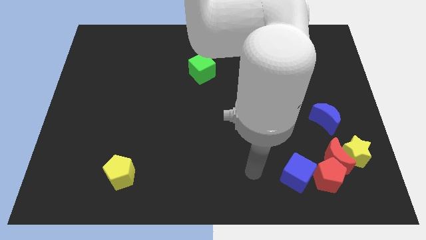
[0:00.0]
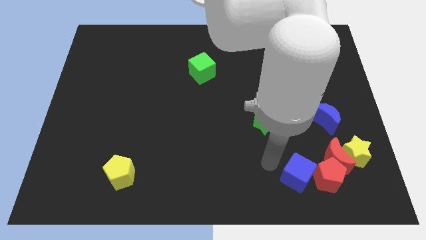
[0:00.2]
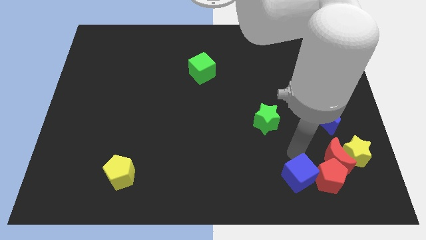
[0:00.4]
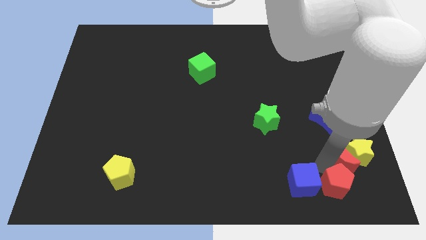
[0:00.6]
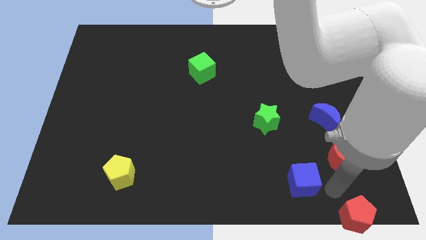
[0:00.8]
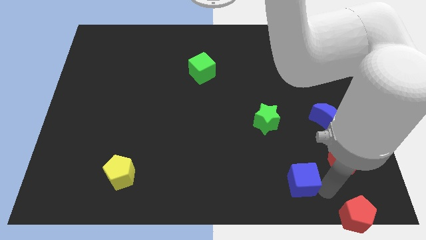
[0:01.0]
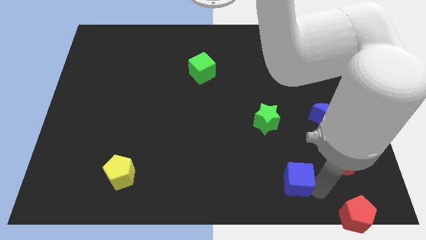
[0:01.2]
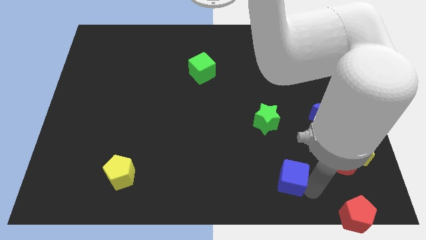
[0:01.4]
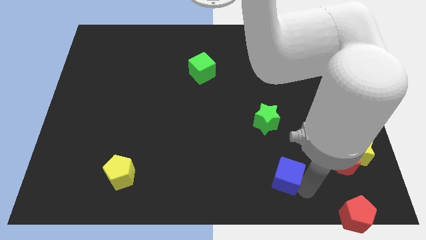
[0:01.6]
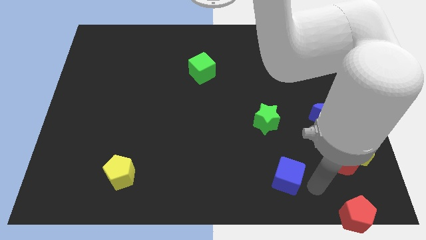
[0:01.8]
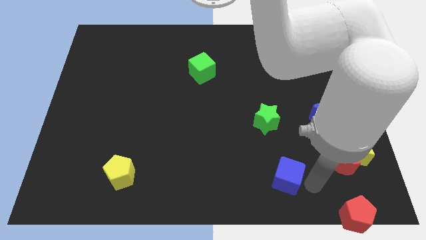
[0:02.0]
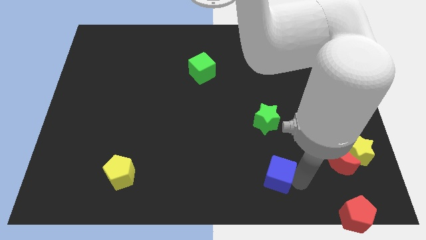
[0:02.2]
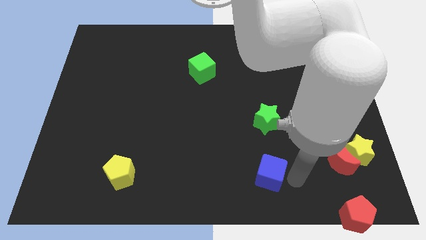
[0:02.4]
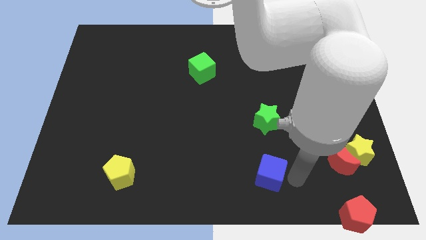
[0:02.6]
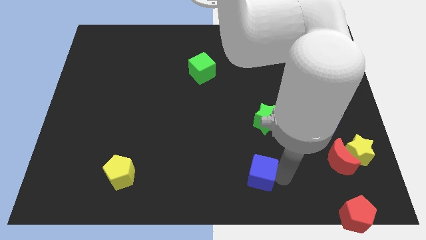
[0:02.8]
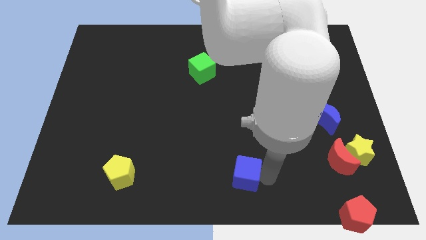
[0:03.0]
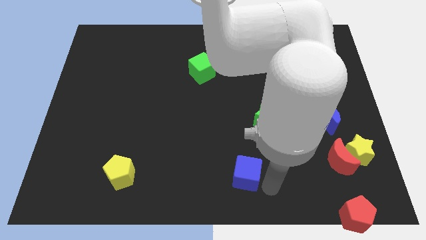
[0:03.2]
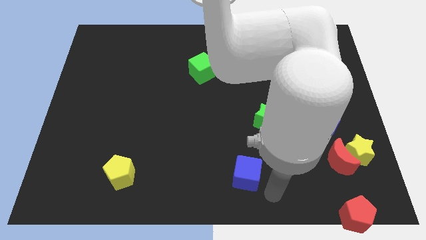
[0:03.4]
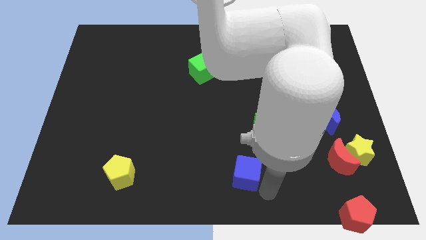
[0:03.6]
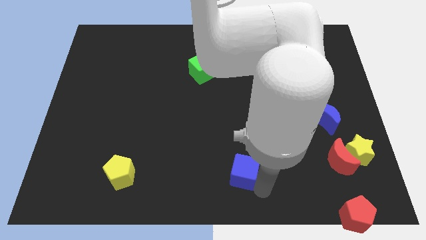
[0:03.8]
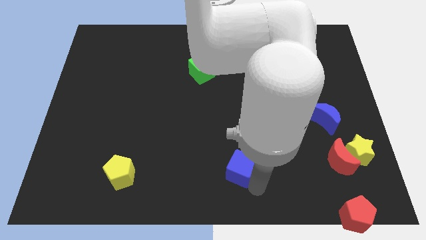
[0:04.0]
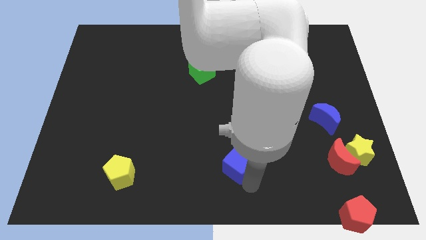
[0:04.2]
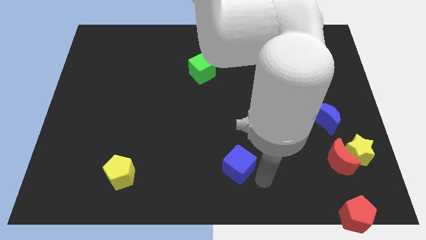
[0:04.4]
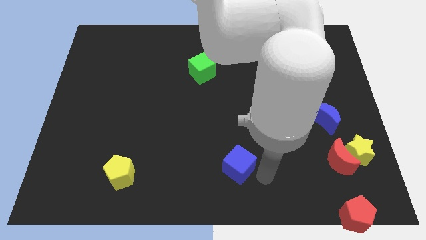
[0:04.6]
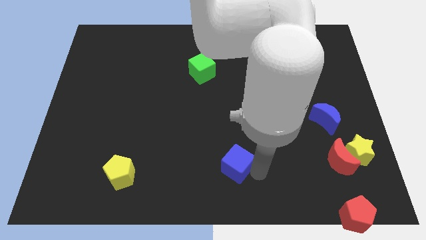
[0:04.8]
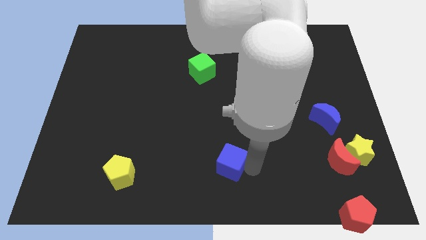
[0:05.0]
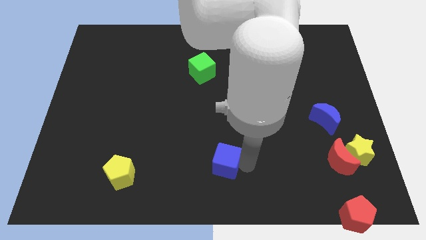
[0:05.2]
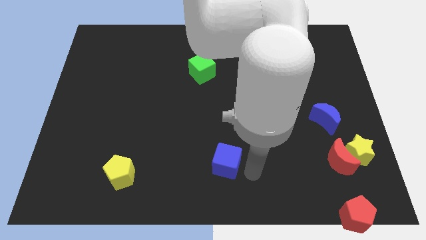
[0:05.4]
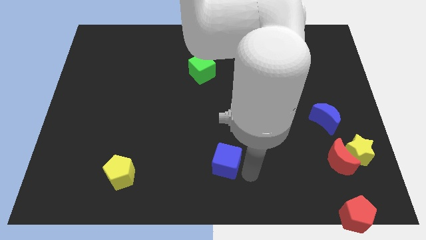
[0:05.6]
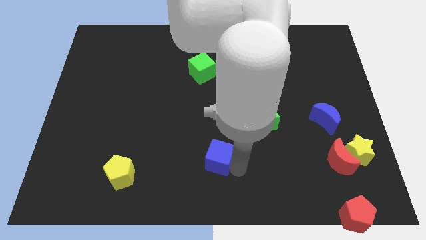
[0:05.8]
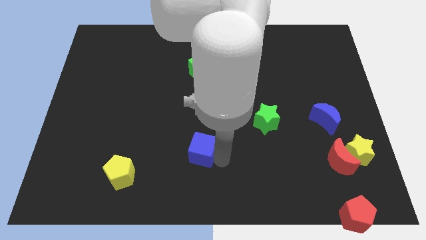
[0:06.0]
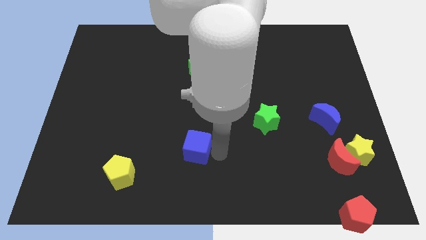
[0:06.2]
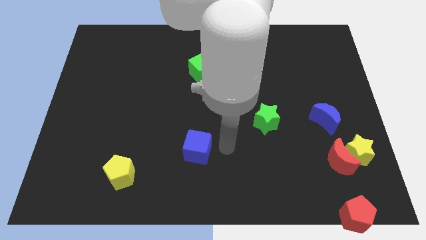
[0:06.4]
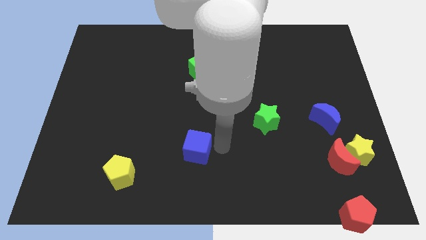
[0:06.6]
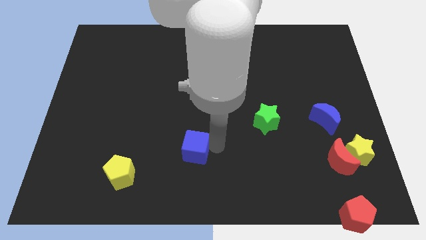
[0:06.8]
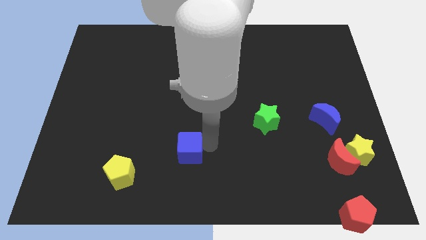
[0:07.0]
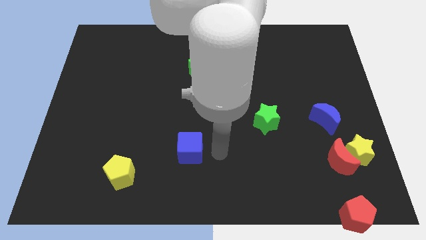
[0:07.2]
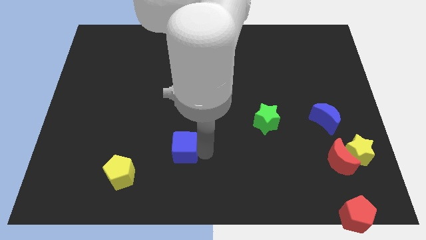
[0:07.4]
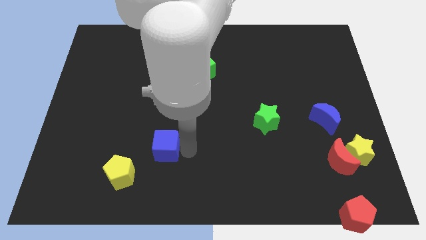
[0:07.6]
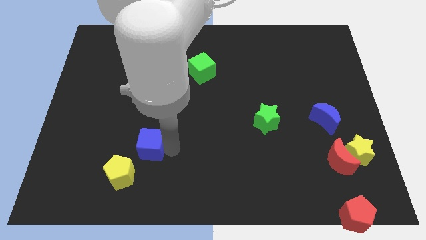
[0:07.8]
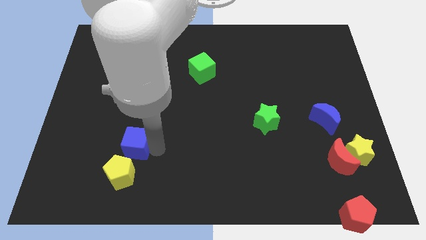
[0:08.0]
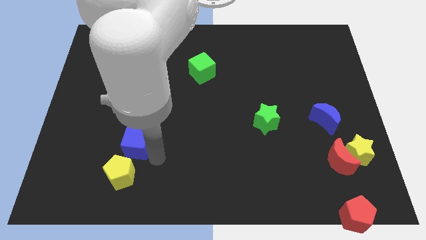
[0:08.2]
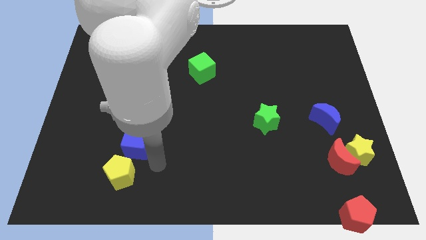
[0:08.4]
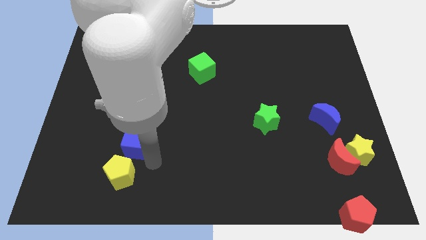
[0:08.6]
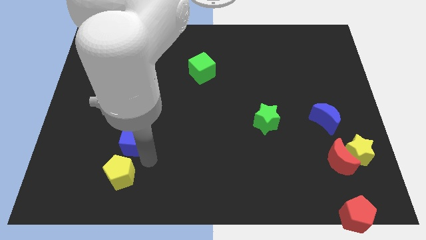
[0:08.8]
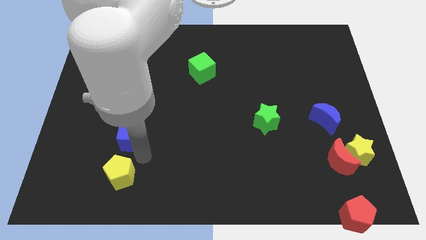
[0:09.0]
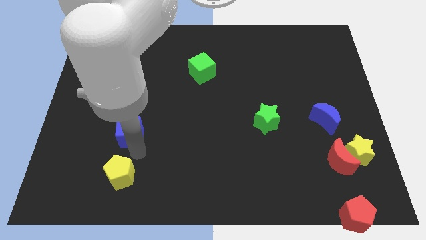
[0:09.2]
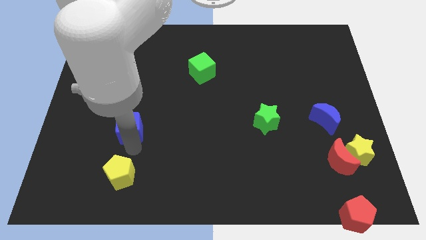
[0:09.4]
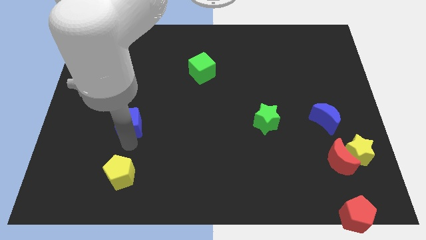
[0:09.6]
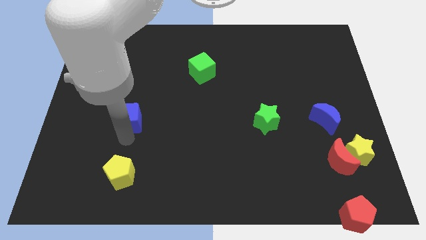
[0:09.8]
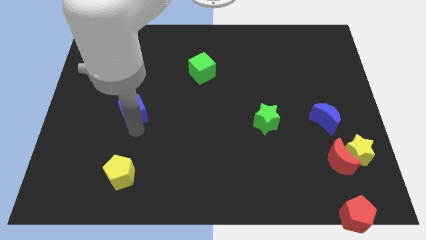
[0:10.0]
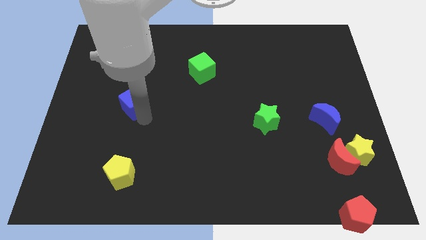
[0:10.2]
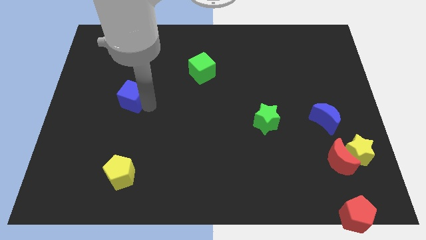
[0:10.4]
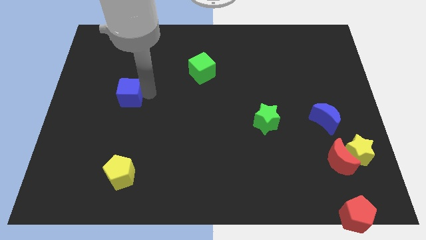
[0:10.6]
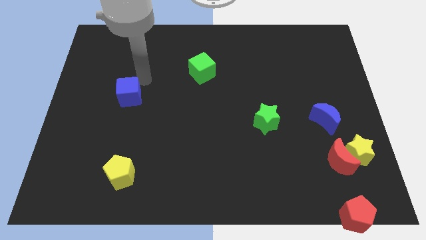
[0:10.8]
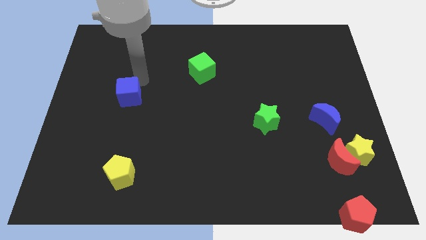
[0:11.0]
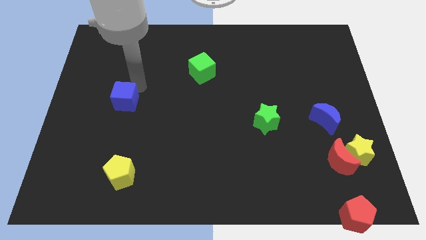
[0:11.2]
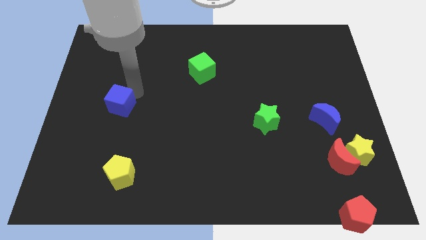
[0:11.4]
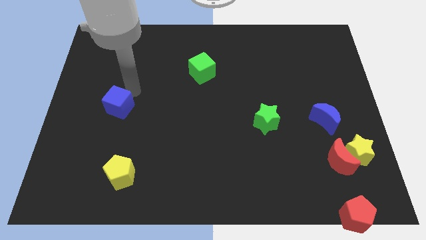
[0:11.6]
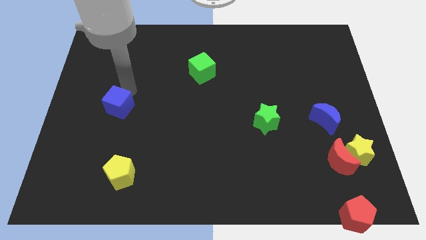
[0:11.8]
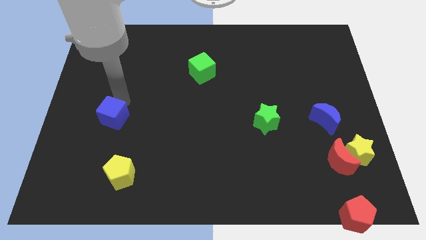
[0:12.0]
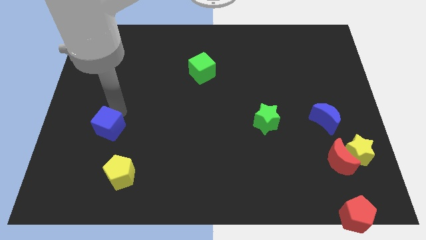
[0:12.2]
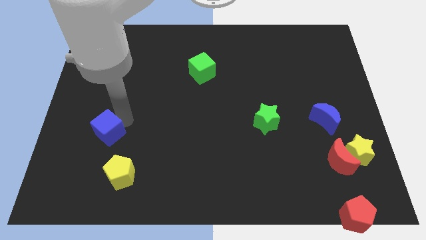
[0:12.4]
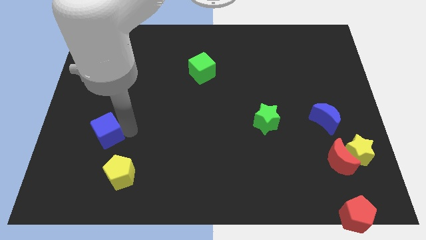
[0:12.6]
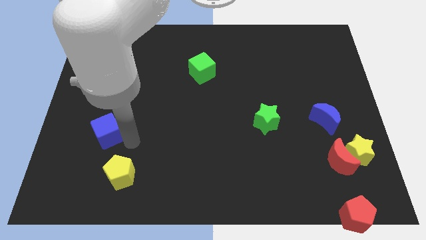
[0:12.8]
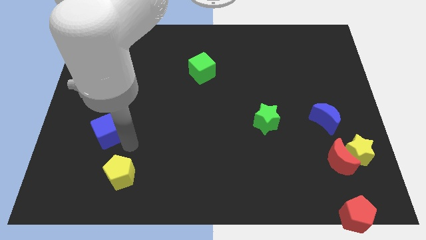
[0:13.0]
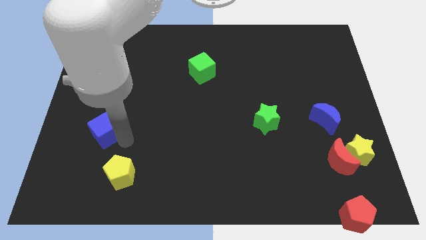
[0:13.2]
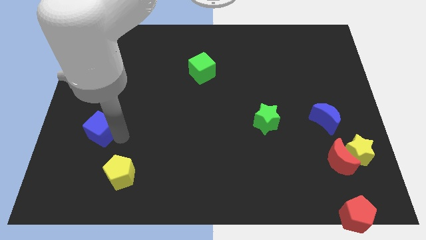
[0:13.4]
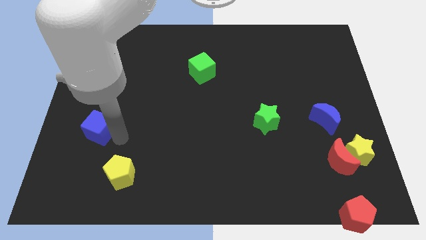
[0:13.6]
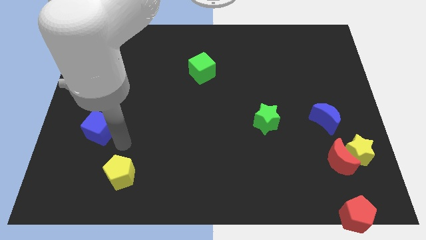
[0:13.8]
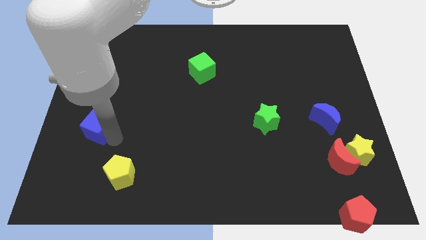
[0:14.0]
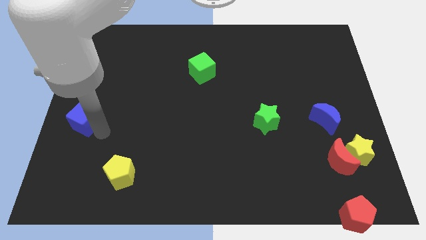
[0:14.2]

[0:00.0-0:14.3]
push the blue cube to the center left
